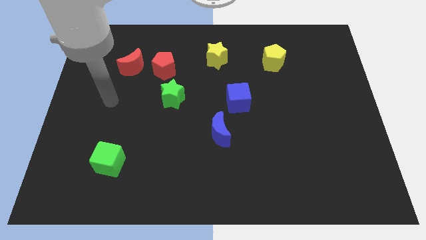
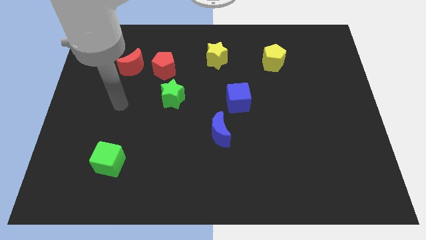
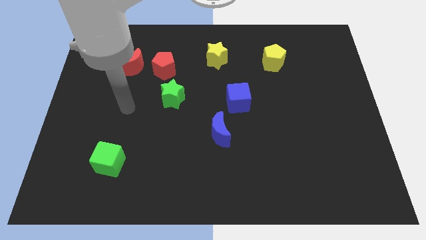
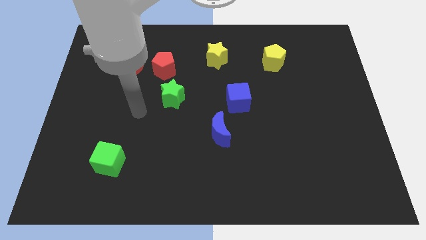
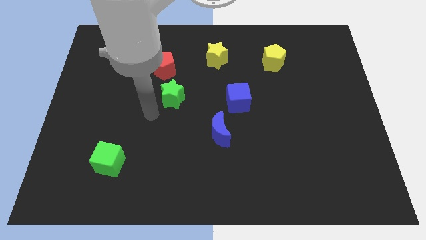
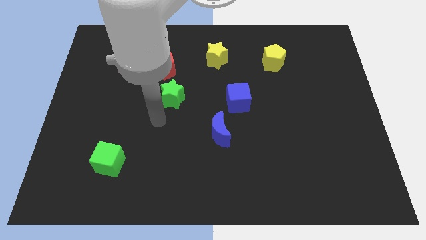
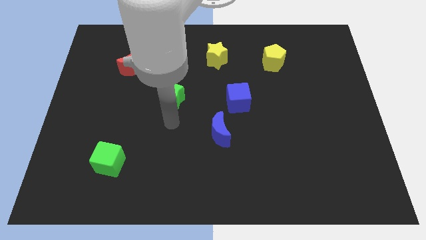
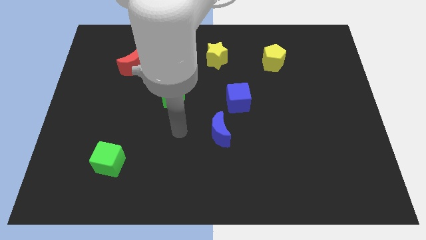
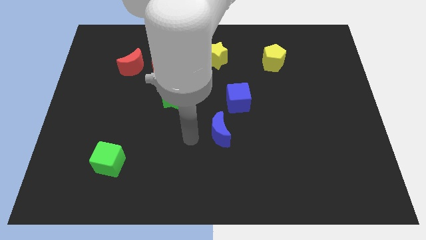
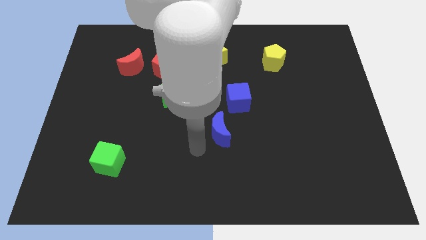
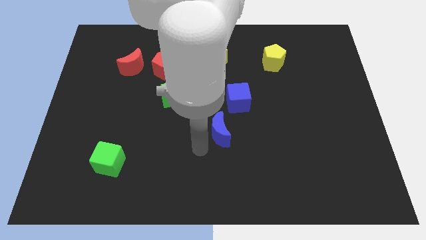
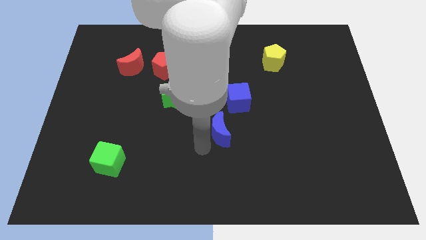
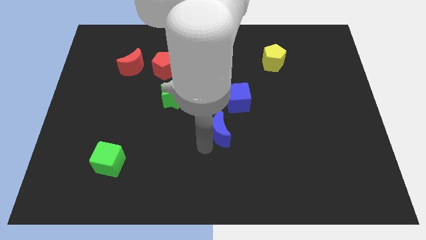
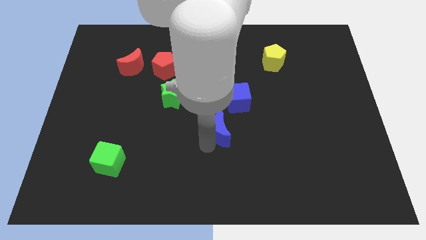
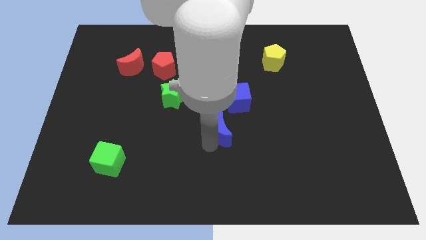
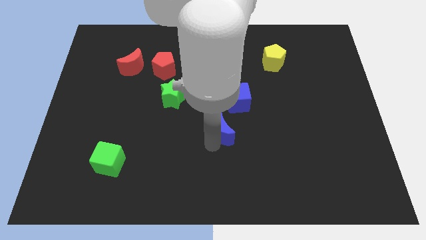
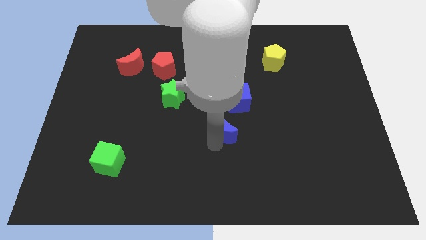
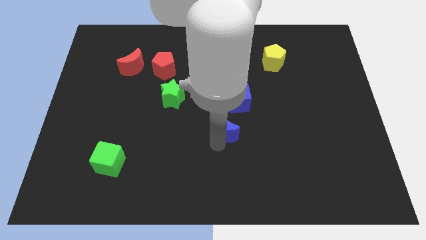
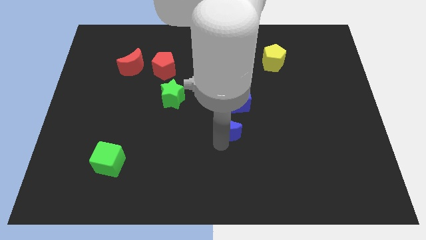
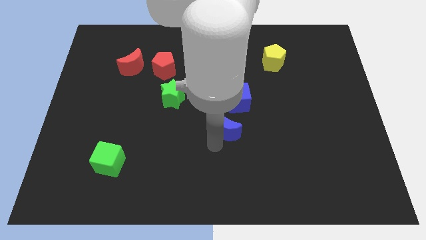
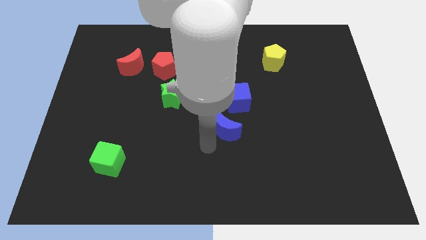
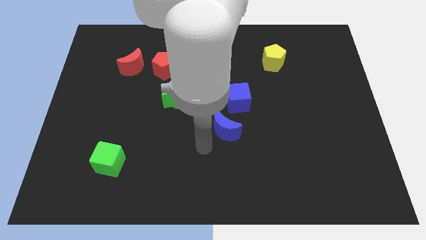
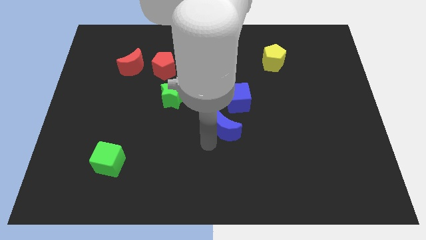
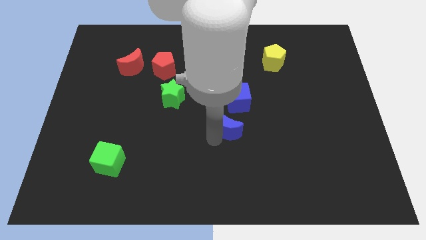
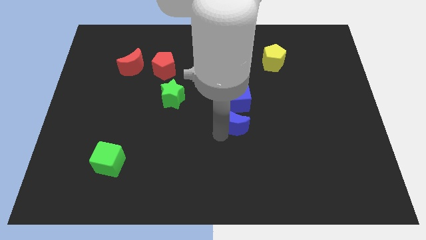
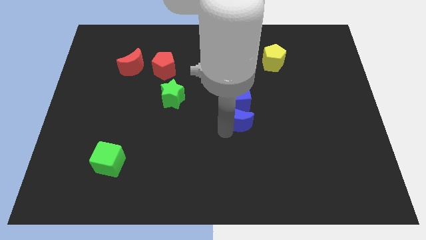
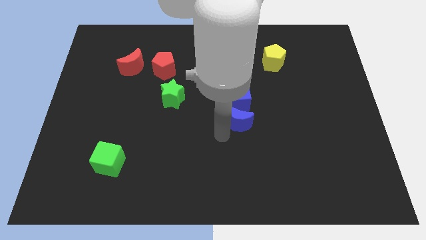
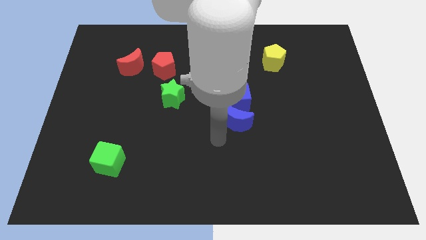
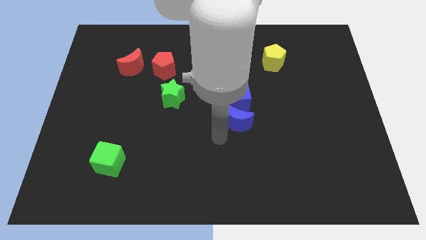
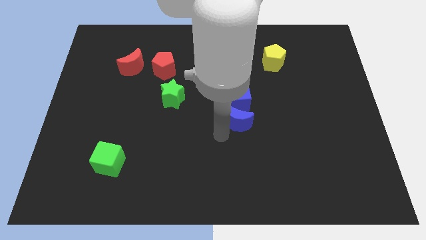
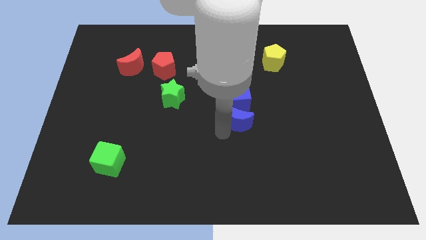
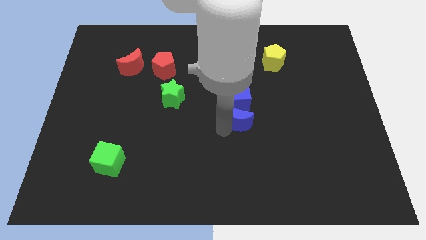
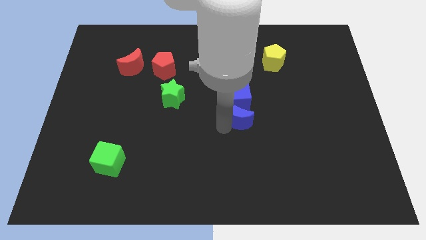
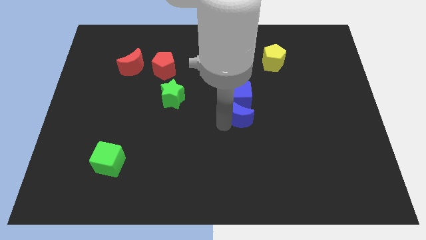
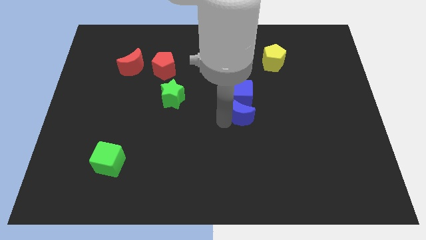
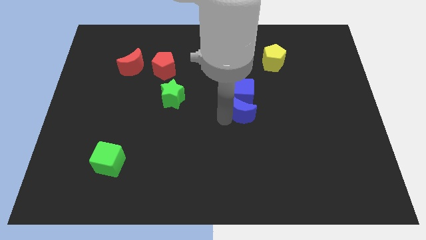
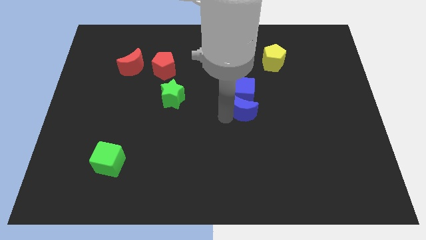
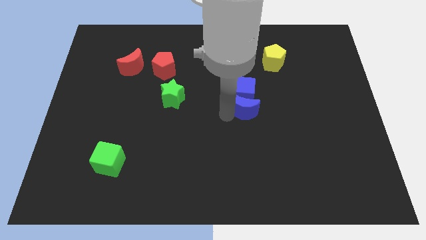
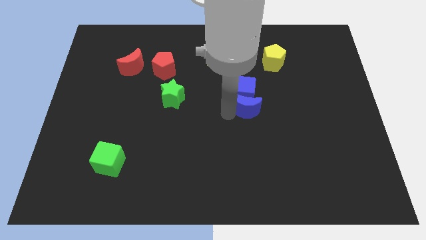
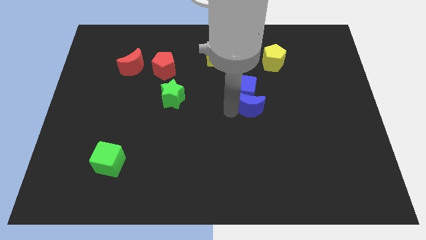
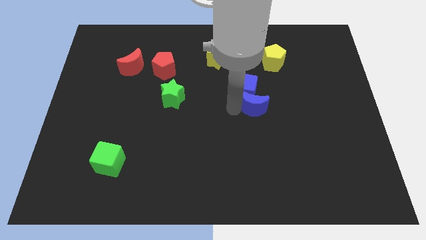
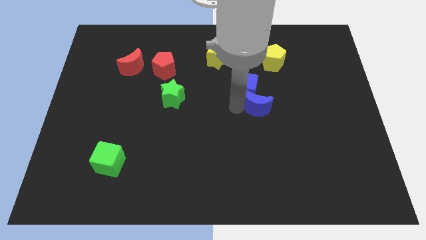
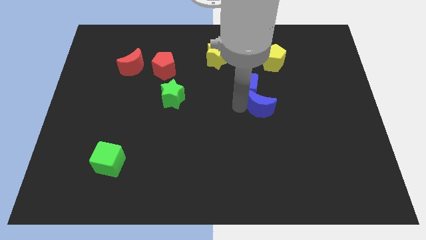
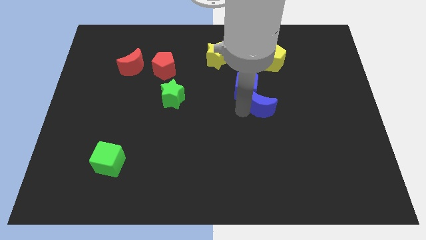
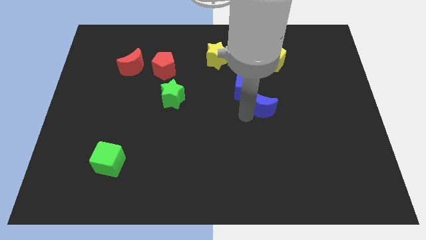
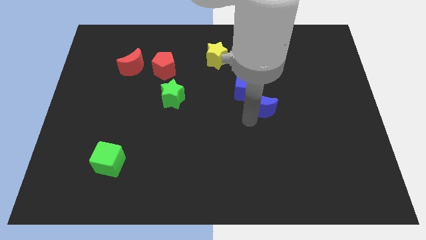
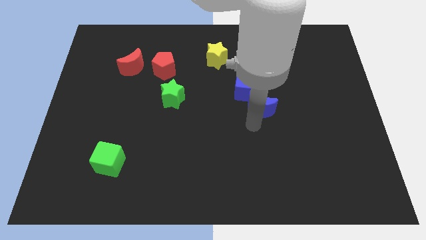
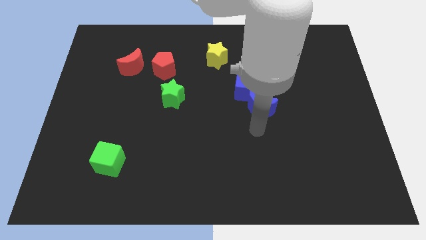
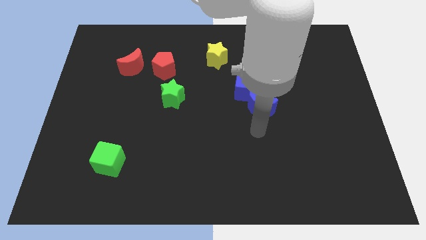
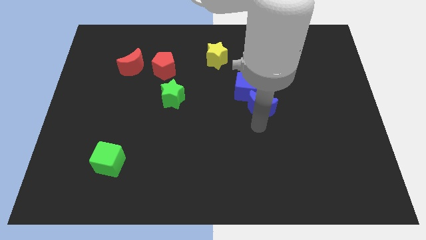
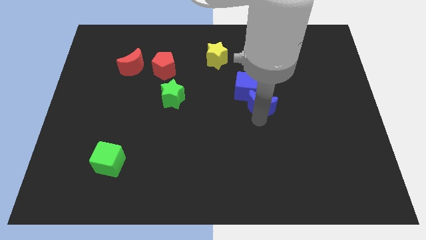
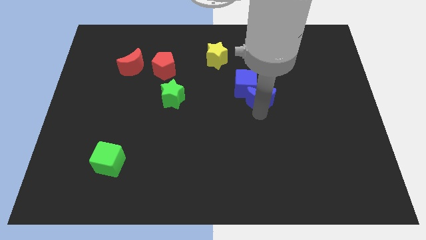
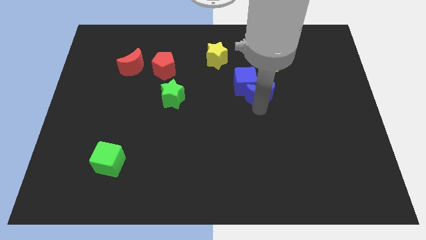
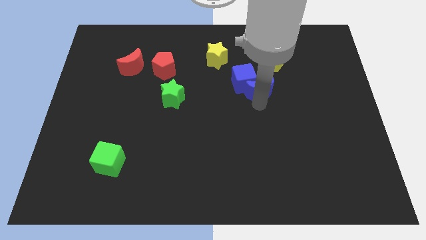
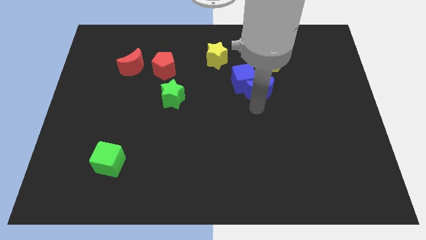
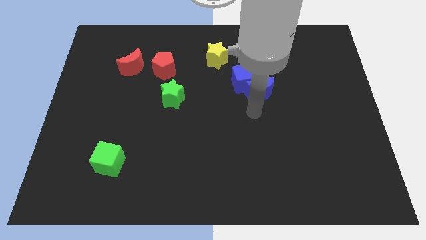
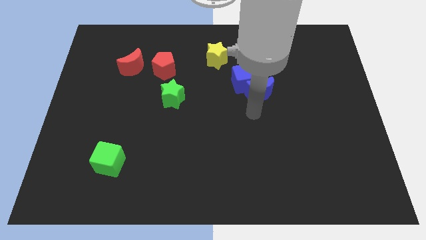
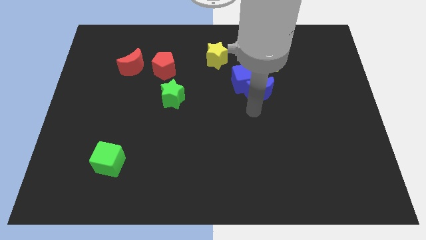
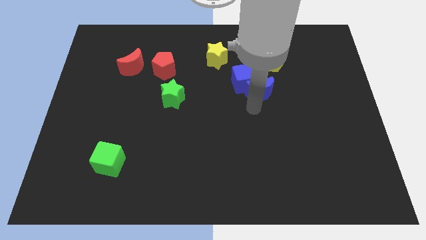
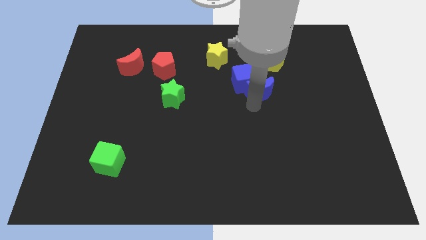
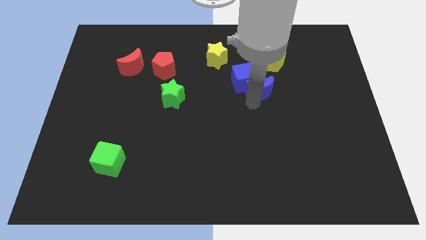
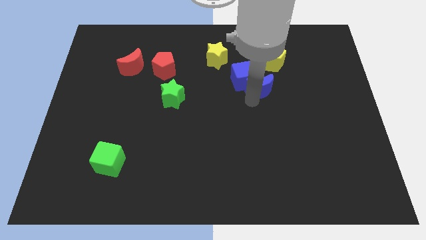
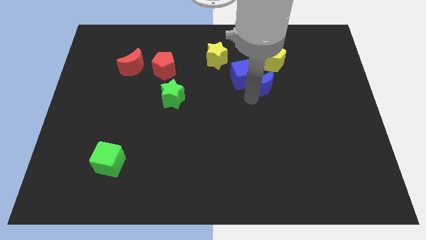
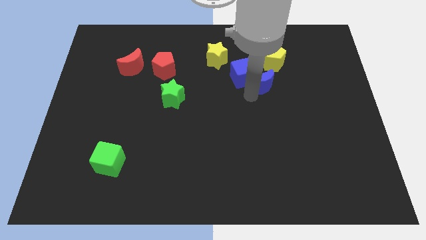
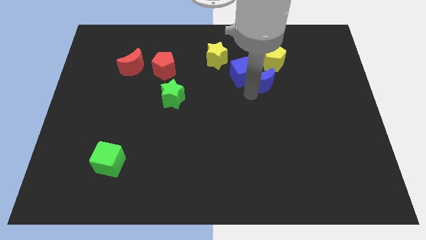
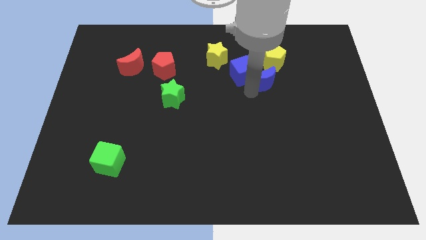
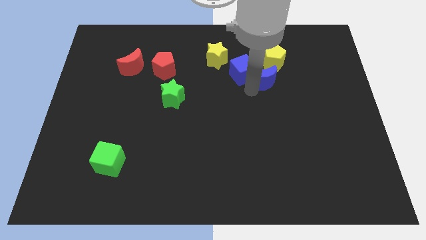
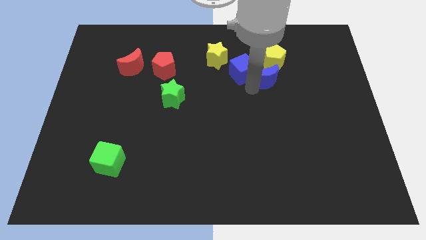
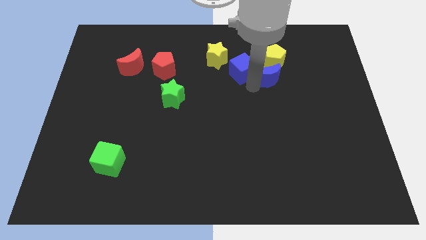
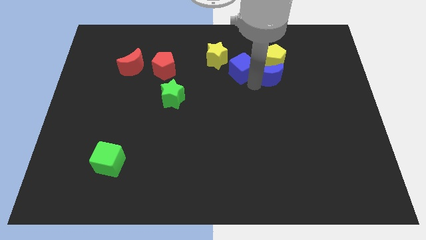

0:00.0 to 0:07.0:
slide the blue moon to the yellow pentagon
